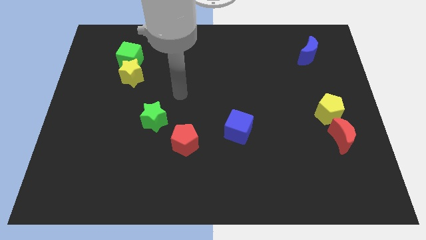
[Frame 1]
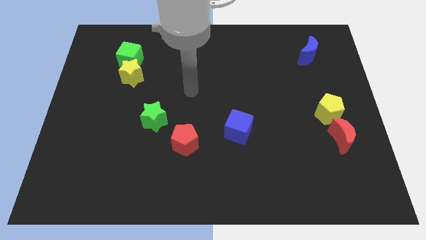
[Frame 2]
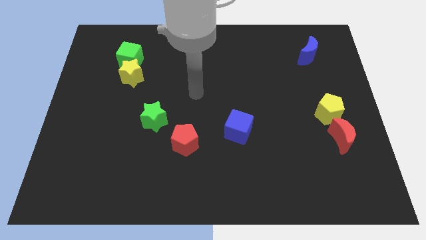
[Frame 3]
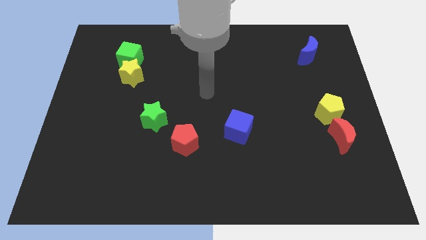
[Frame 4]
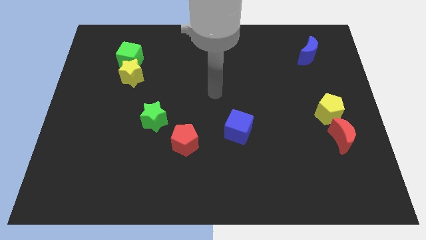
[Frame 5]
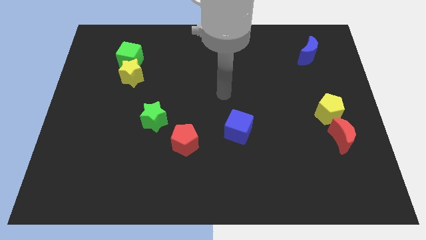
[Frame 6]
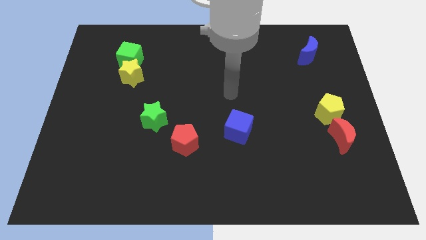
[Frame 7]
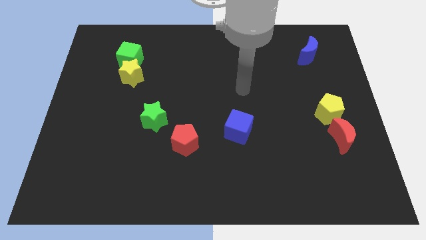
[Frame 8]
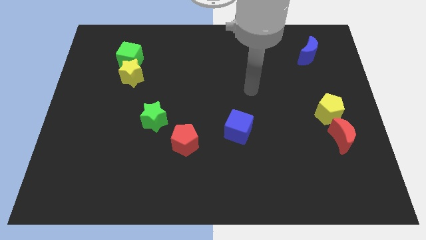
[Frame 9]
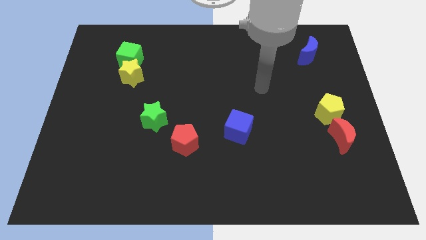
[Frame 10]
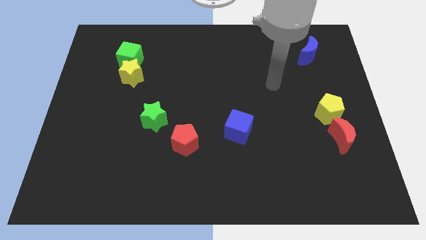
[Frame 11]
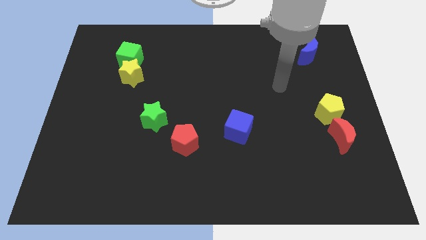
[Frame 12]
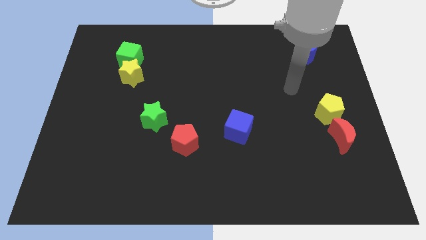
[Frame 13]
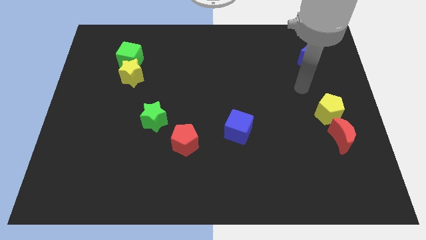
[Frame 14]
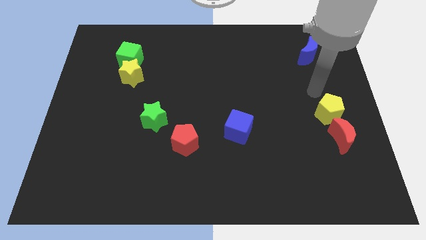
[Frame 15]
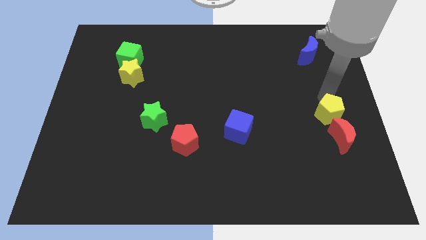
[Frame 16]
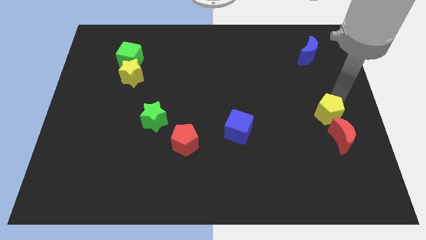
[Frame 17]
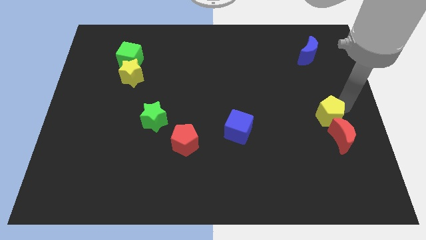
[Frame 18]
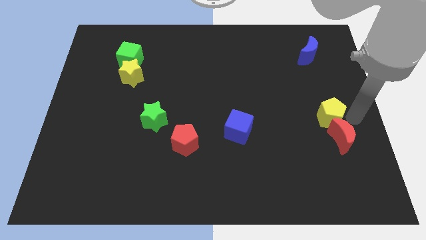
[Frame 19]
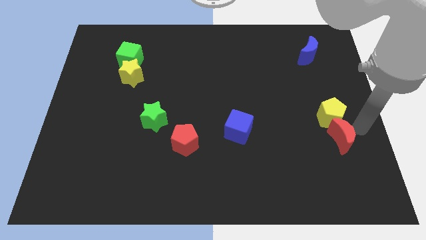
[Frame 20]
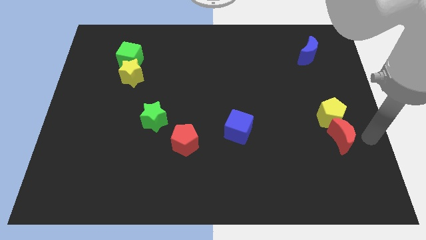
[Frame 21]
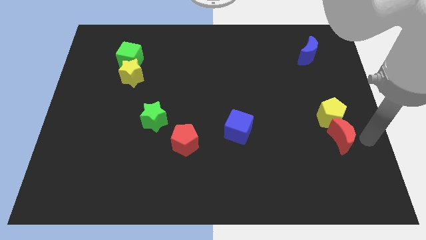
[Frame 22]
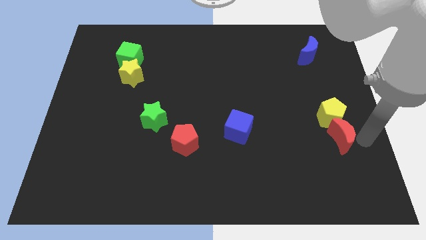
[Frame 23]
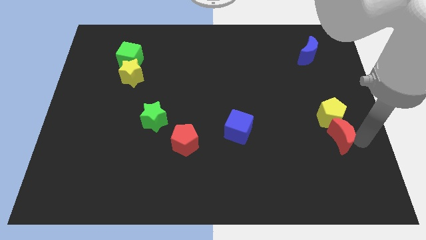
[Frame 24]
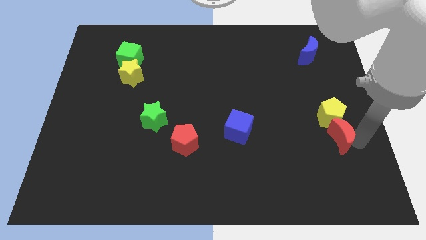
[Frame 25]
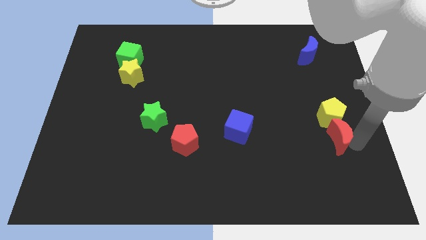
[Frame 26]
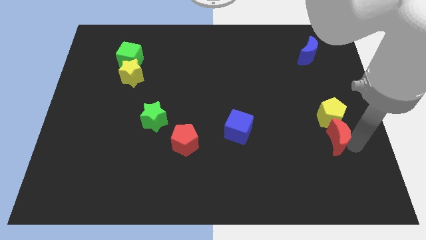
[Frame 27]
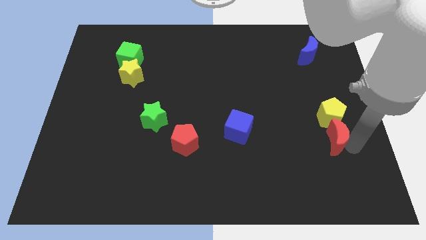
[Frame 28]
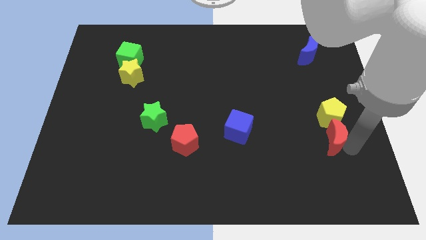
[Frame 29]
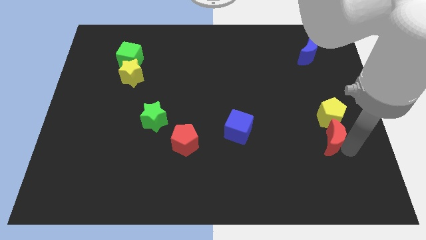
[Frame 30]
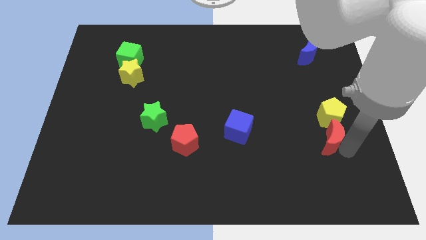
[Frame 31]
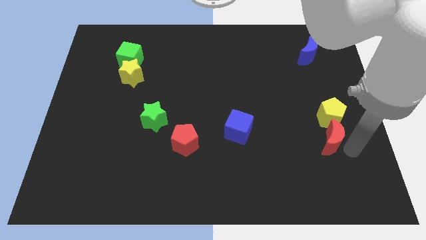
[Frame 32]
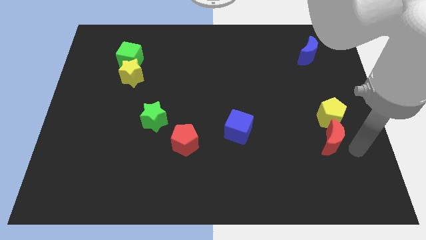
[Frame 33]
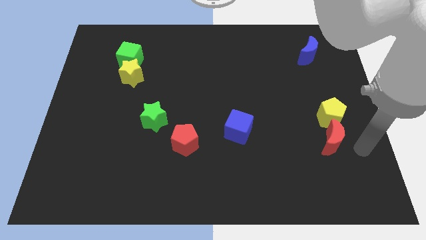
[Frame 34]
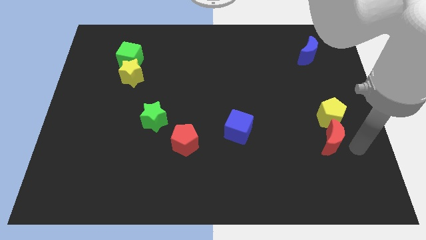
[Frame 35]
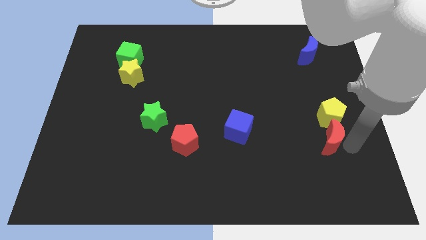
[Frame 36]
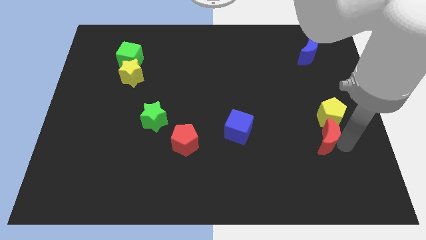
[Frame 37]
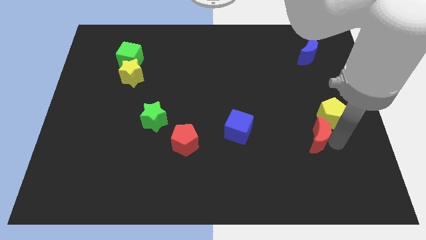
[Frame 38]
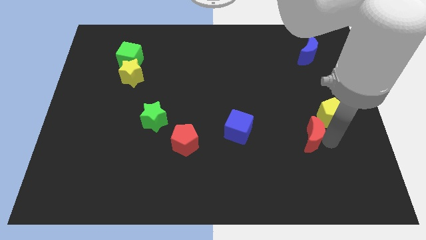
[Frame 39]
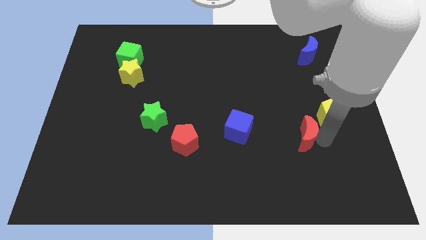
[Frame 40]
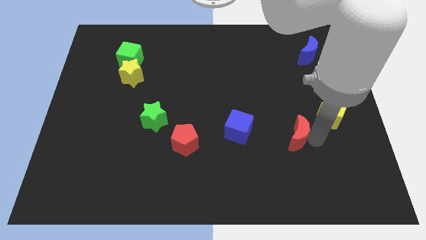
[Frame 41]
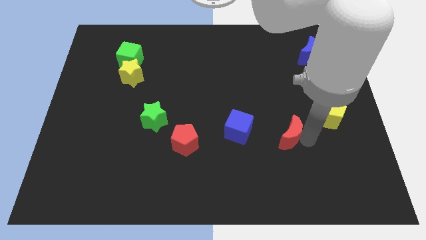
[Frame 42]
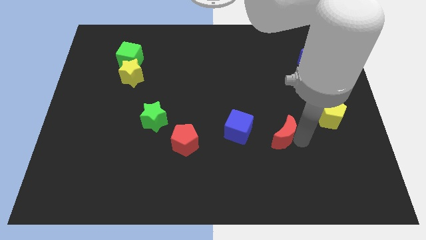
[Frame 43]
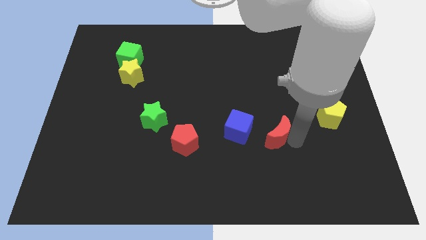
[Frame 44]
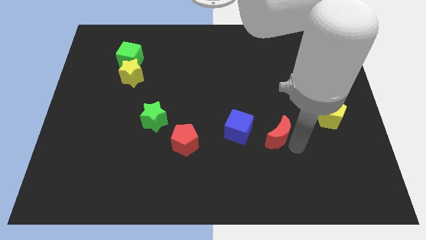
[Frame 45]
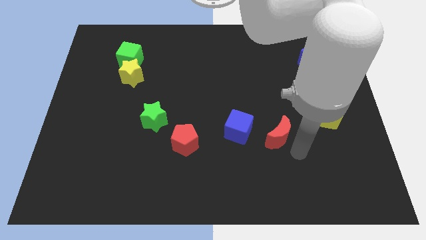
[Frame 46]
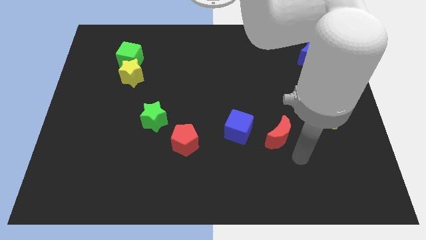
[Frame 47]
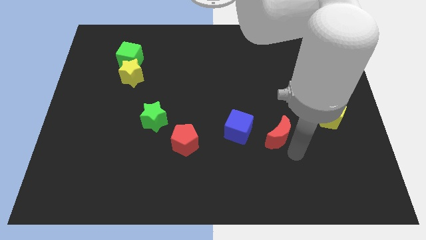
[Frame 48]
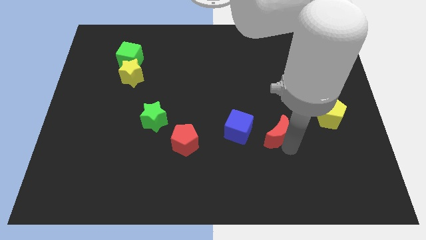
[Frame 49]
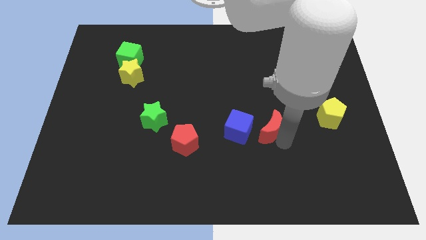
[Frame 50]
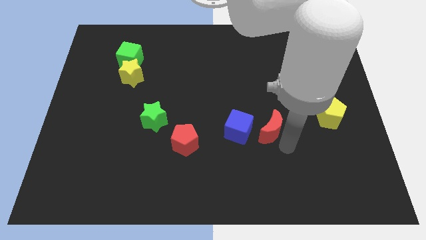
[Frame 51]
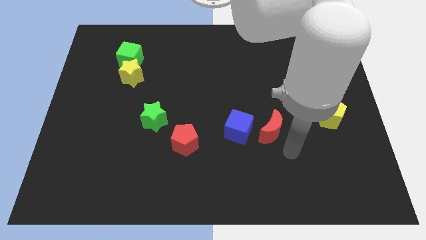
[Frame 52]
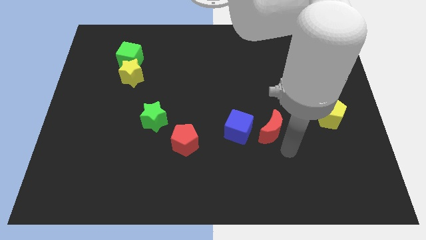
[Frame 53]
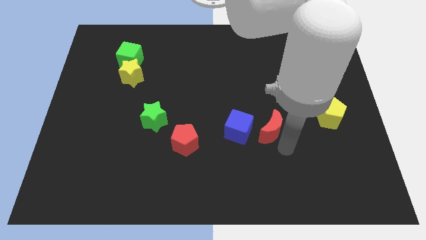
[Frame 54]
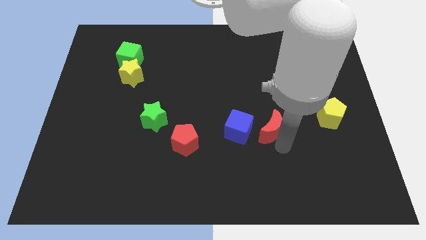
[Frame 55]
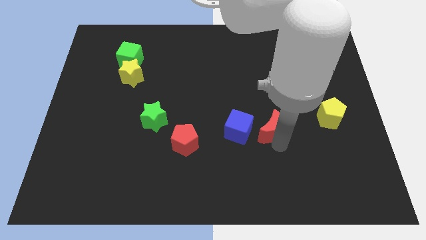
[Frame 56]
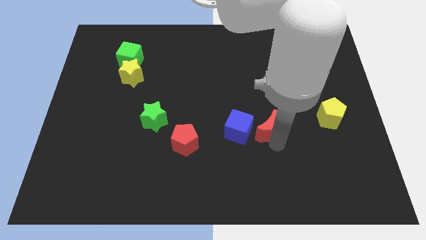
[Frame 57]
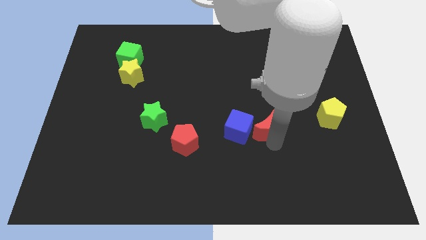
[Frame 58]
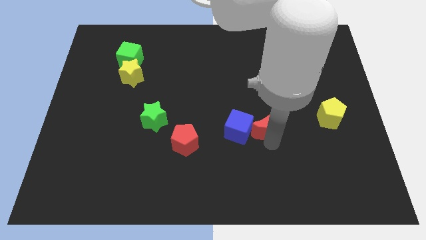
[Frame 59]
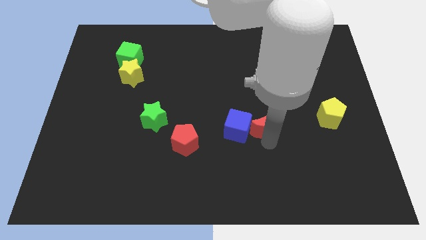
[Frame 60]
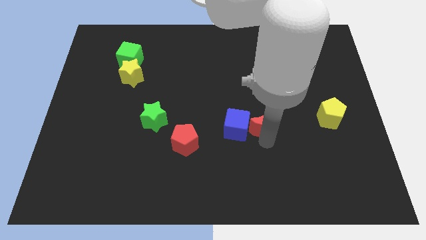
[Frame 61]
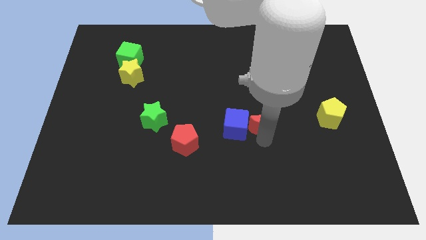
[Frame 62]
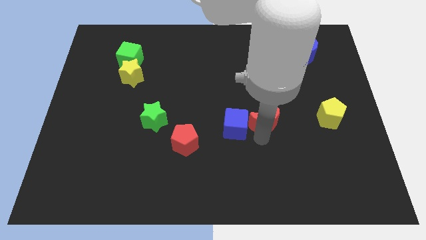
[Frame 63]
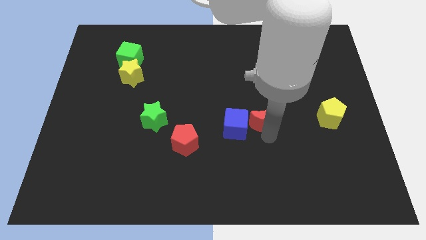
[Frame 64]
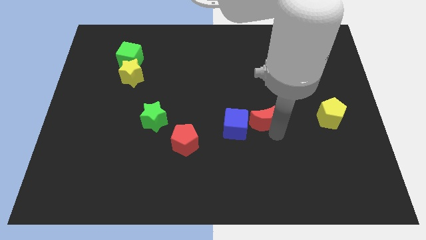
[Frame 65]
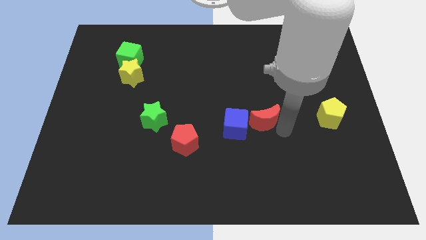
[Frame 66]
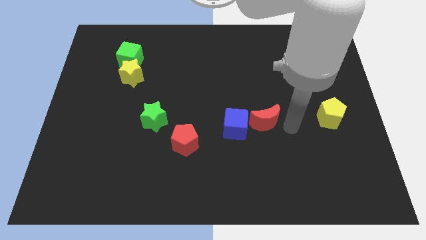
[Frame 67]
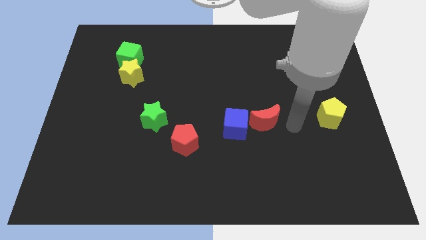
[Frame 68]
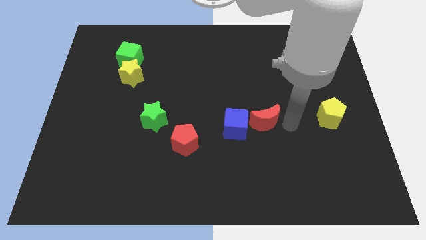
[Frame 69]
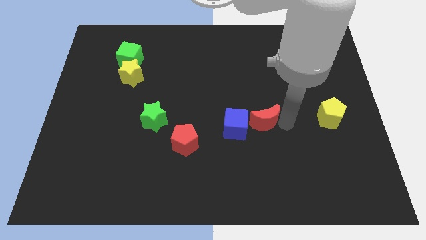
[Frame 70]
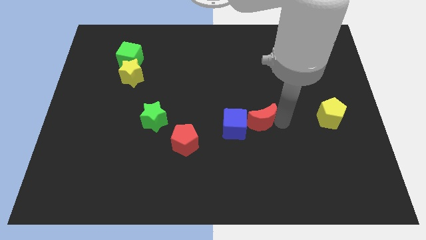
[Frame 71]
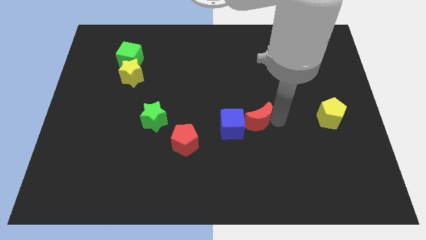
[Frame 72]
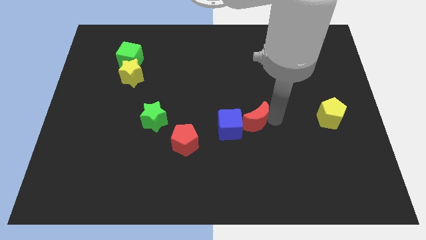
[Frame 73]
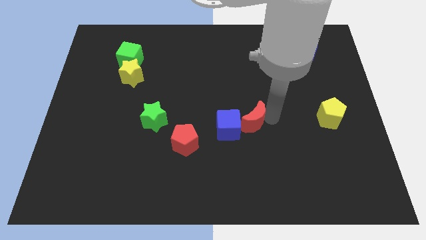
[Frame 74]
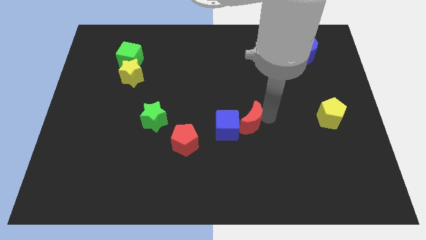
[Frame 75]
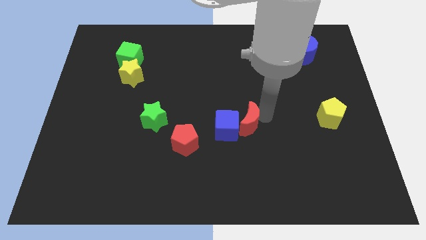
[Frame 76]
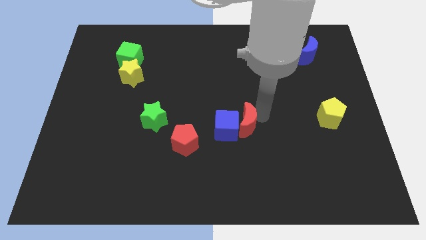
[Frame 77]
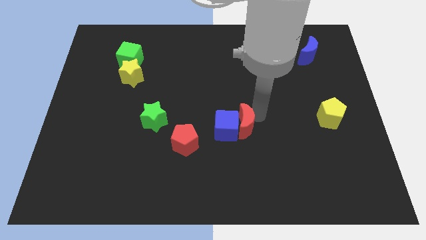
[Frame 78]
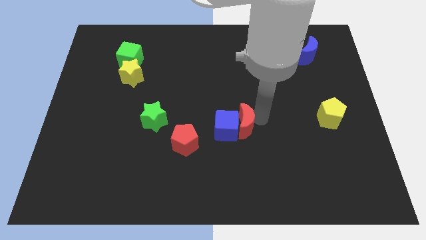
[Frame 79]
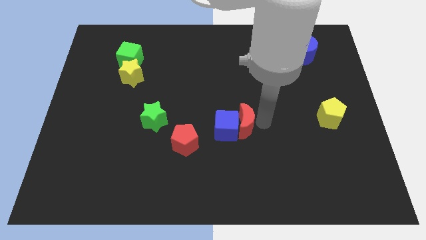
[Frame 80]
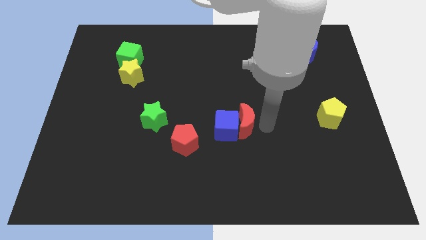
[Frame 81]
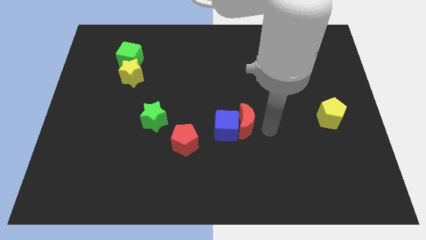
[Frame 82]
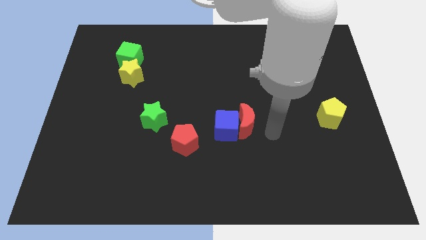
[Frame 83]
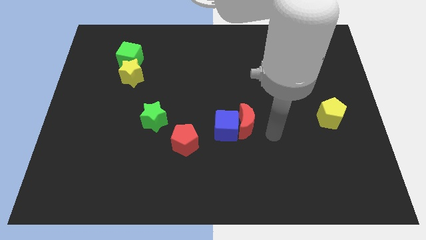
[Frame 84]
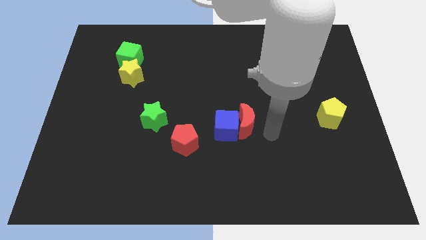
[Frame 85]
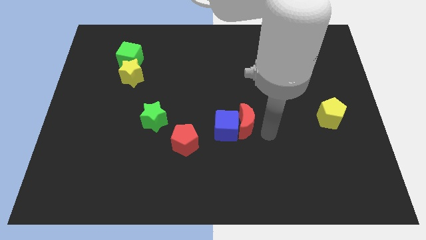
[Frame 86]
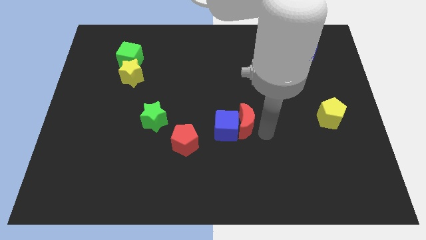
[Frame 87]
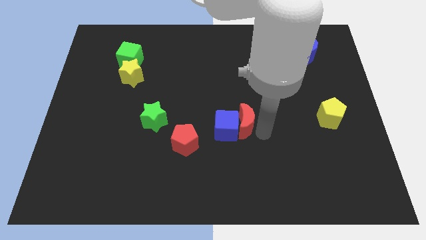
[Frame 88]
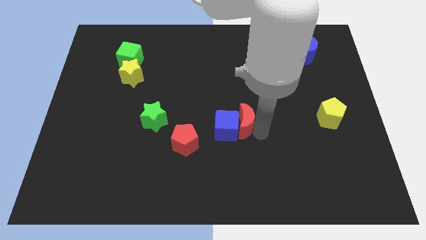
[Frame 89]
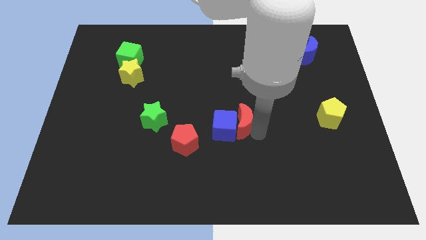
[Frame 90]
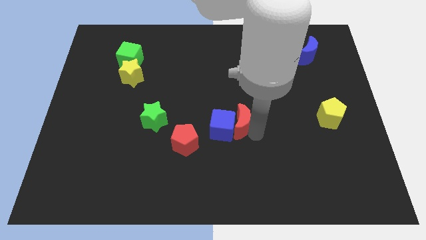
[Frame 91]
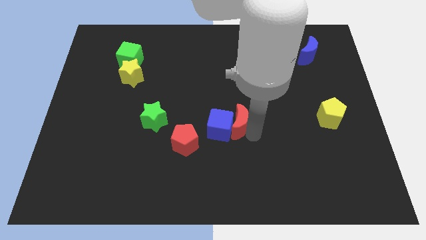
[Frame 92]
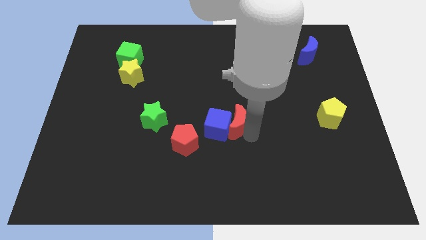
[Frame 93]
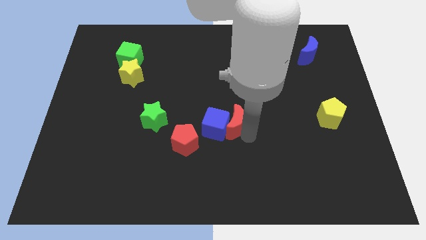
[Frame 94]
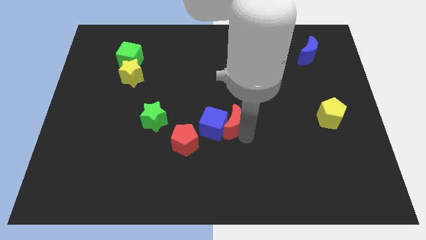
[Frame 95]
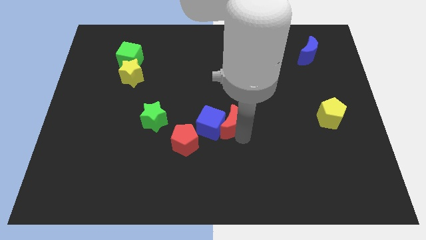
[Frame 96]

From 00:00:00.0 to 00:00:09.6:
push the red moon to the top right side of the red pentagon
